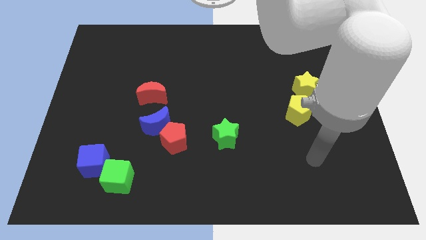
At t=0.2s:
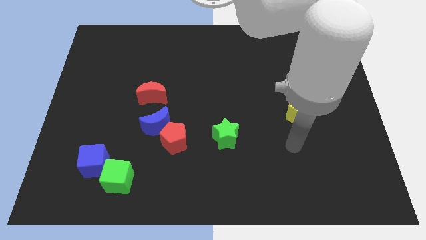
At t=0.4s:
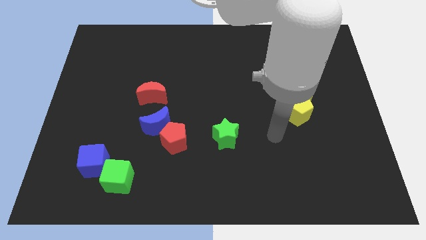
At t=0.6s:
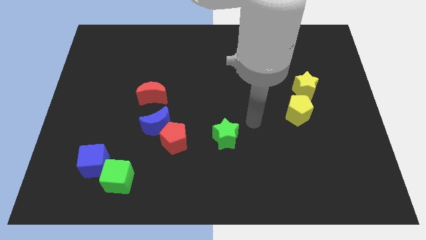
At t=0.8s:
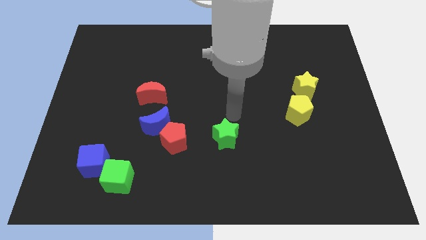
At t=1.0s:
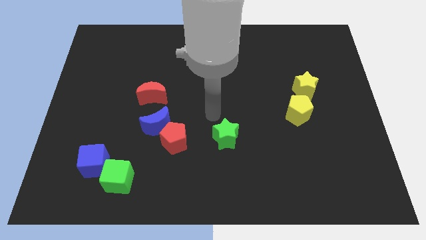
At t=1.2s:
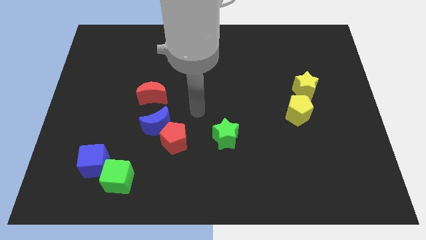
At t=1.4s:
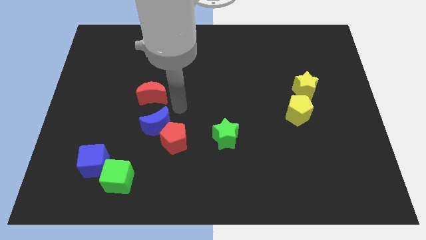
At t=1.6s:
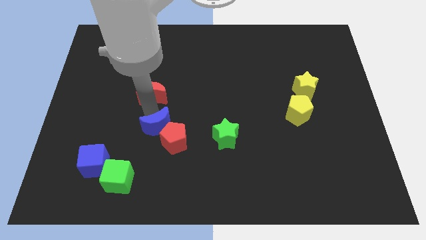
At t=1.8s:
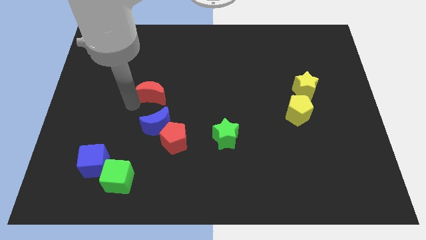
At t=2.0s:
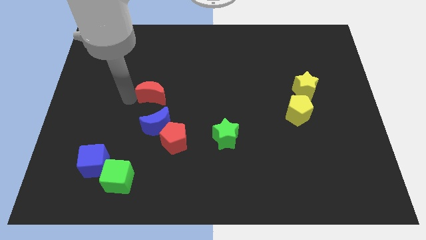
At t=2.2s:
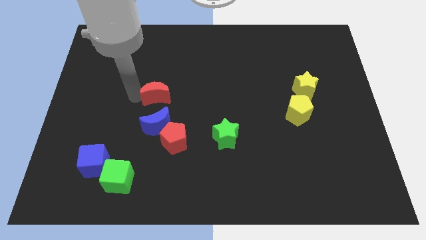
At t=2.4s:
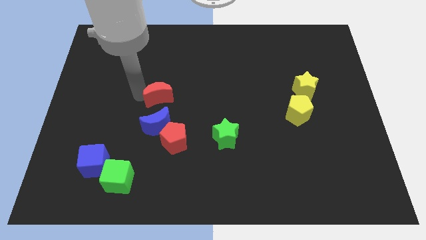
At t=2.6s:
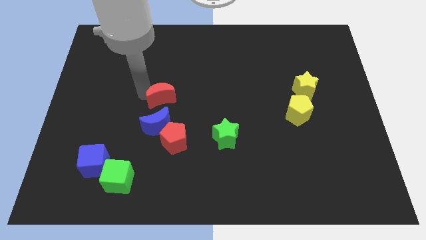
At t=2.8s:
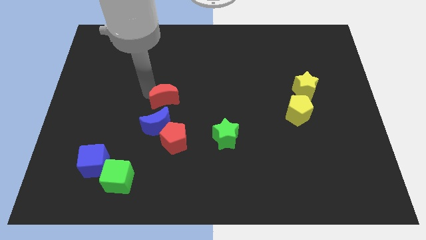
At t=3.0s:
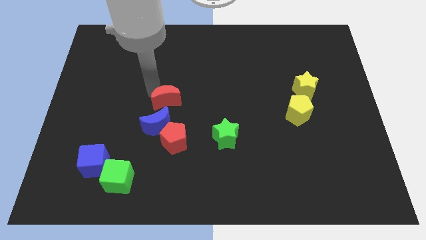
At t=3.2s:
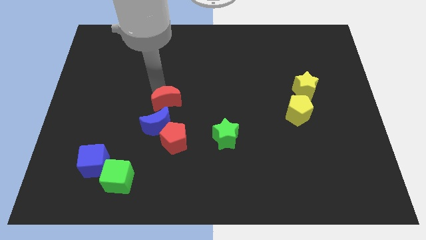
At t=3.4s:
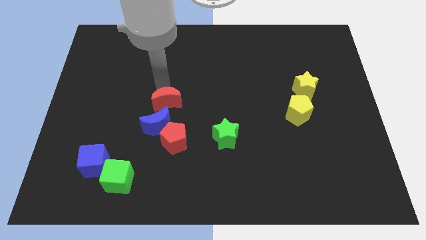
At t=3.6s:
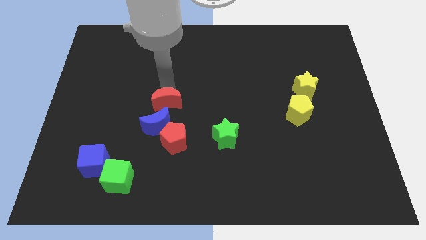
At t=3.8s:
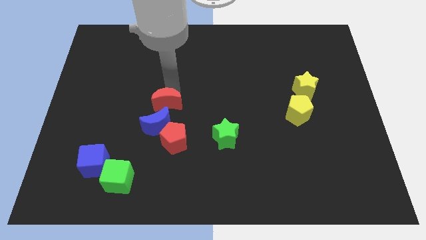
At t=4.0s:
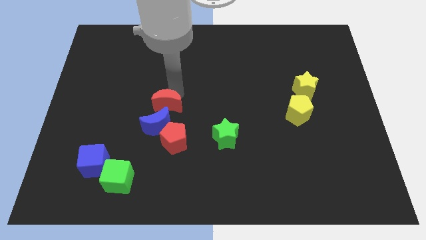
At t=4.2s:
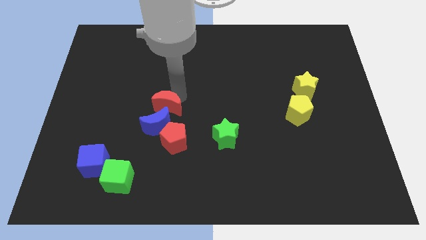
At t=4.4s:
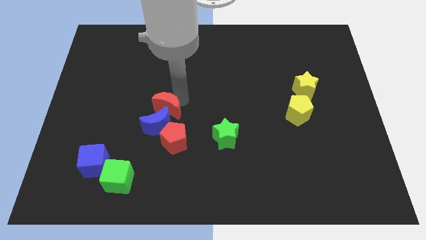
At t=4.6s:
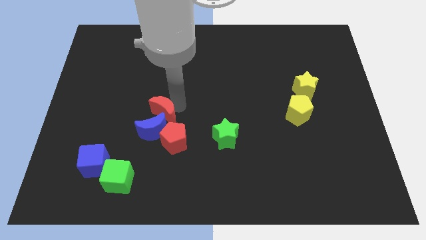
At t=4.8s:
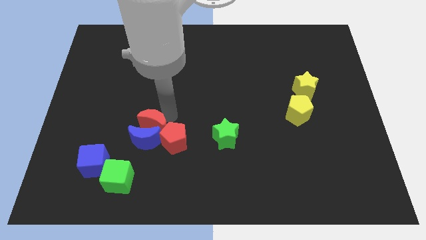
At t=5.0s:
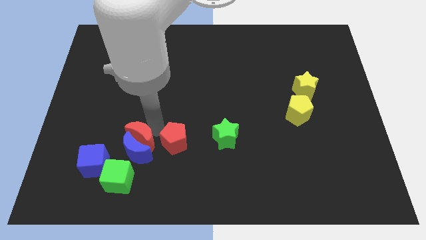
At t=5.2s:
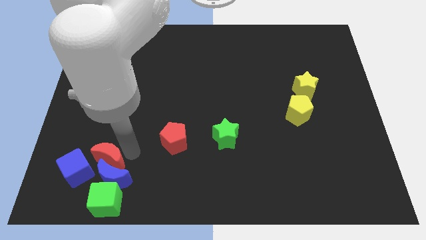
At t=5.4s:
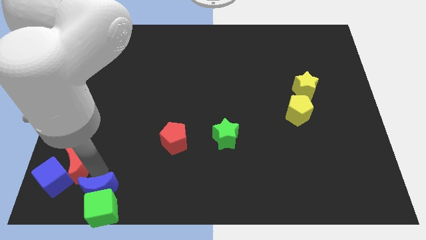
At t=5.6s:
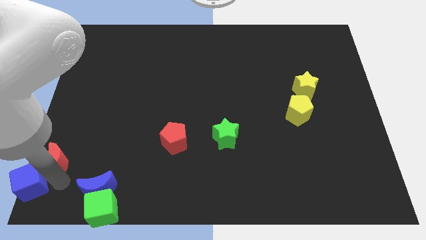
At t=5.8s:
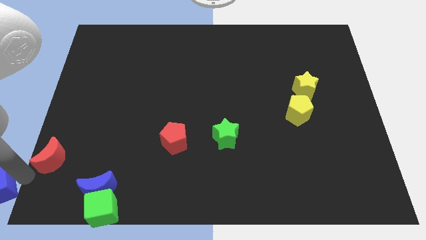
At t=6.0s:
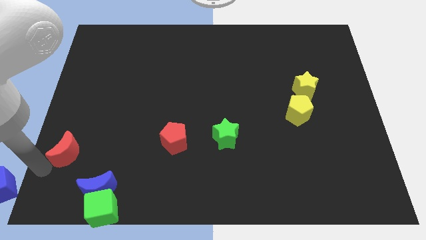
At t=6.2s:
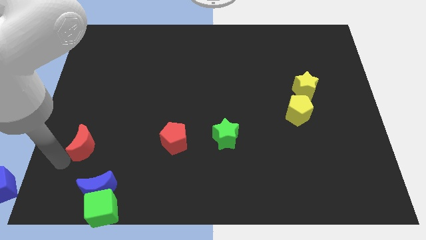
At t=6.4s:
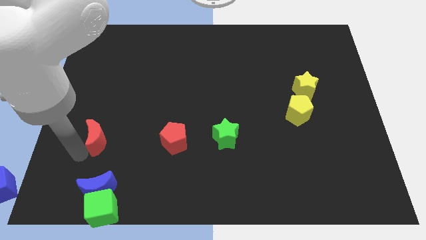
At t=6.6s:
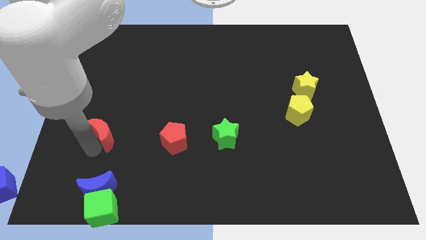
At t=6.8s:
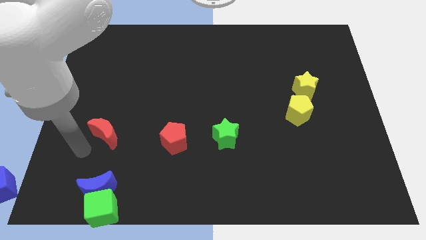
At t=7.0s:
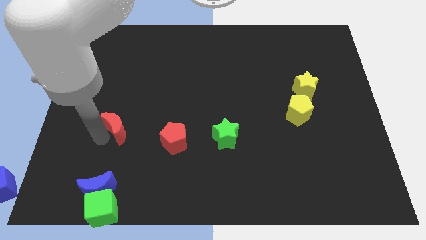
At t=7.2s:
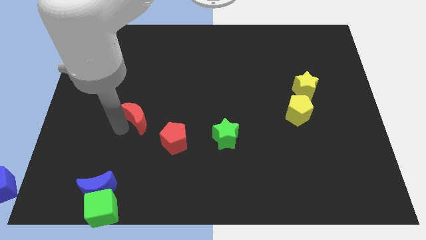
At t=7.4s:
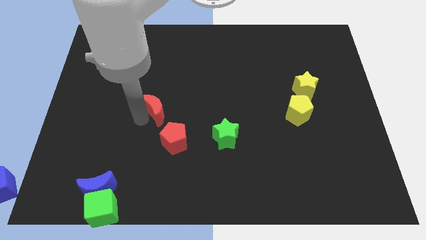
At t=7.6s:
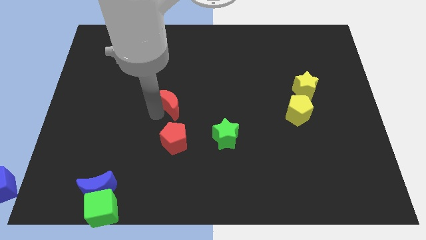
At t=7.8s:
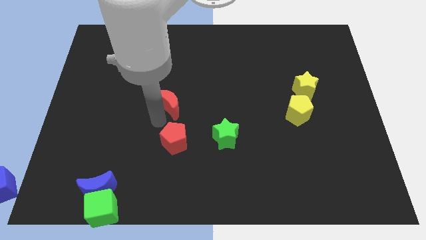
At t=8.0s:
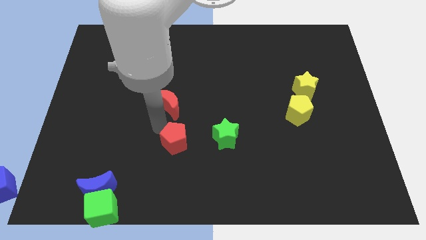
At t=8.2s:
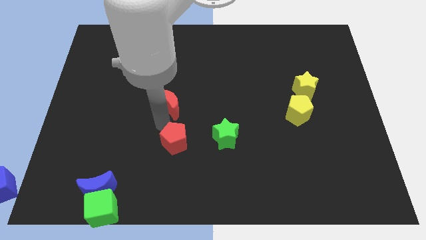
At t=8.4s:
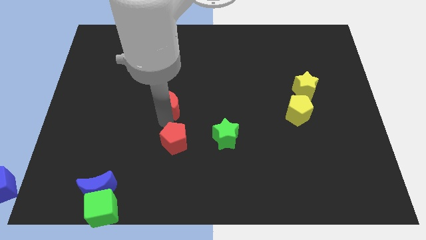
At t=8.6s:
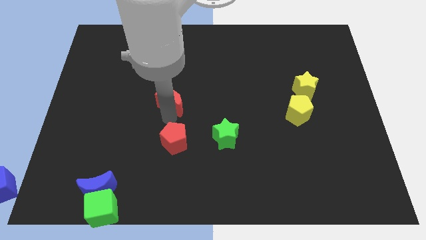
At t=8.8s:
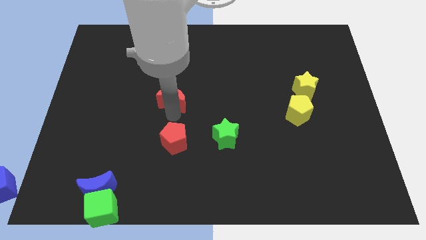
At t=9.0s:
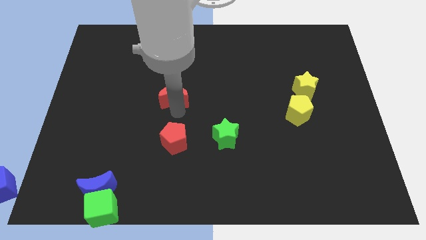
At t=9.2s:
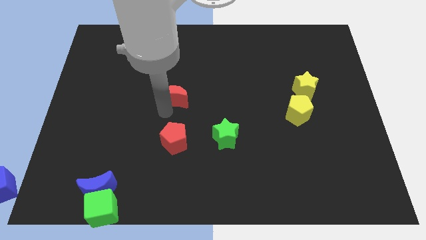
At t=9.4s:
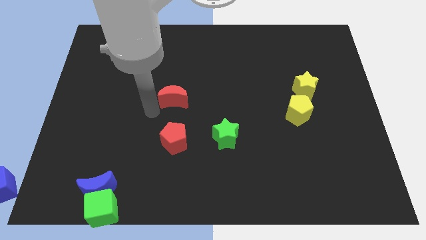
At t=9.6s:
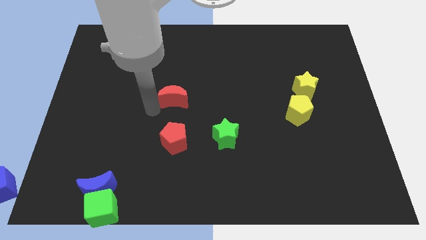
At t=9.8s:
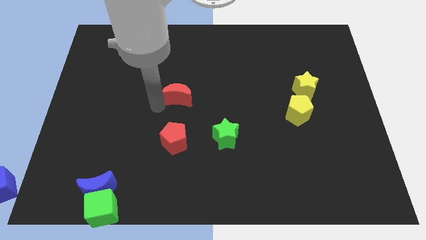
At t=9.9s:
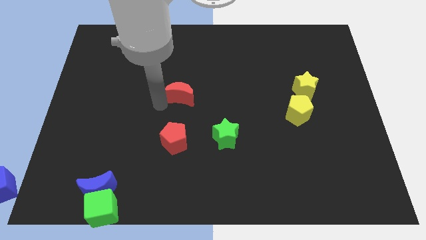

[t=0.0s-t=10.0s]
slightly push the red moon to the right

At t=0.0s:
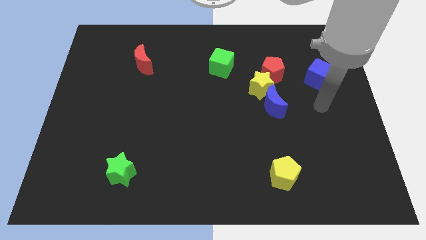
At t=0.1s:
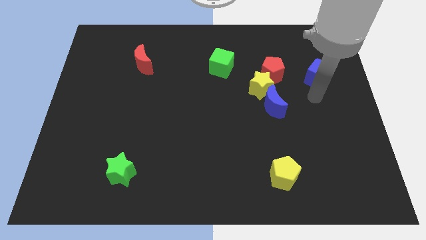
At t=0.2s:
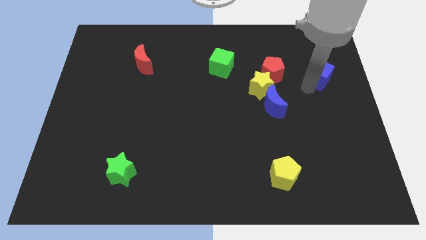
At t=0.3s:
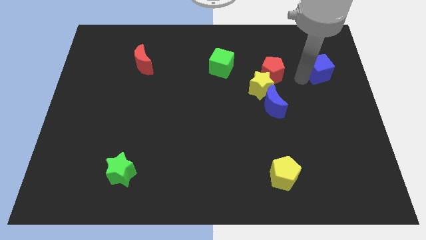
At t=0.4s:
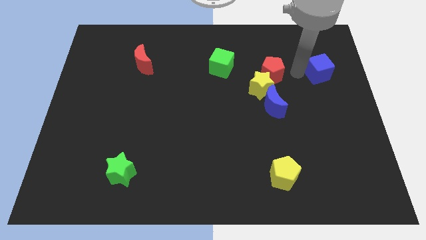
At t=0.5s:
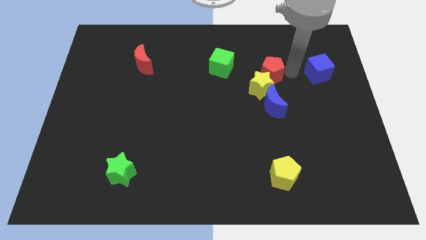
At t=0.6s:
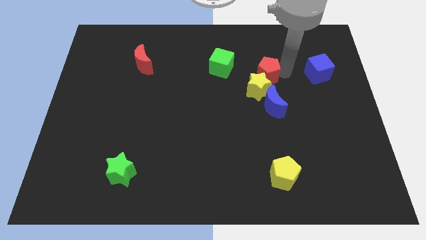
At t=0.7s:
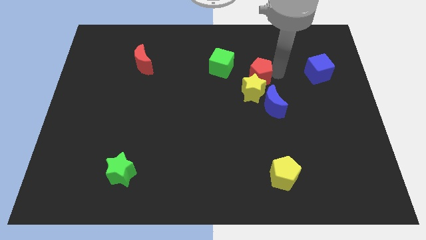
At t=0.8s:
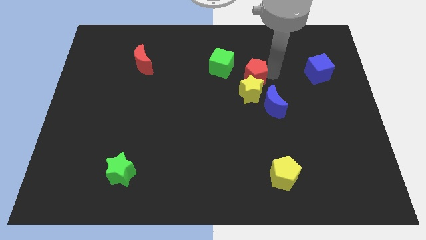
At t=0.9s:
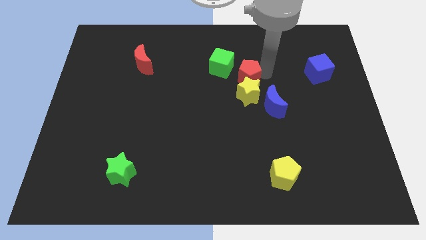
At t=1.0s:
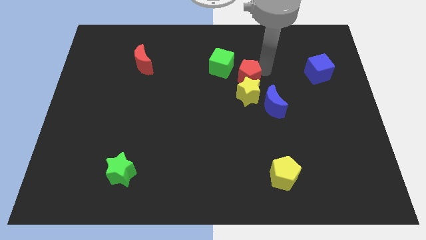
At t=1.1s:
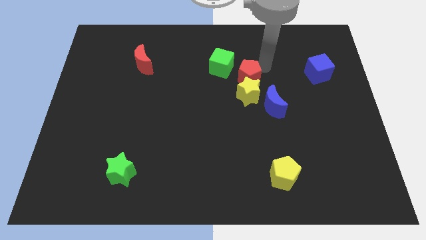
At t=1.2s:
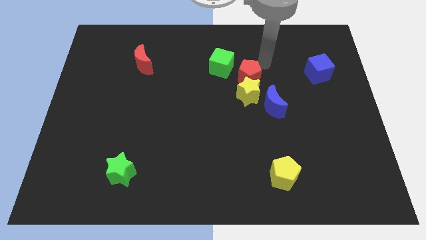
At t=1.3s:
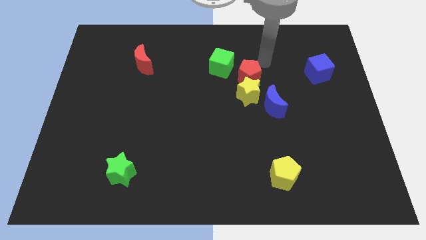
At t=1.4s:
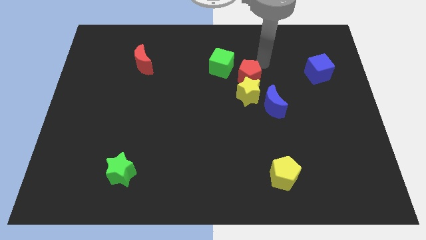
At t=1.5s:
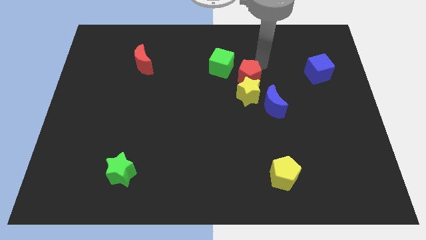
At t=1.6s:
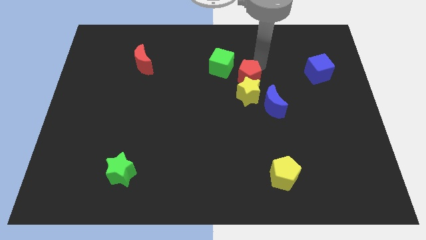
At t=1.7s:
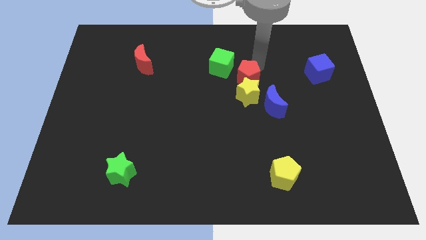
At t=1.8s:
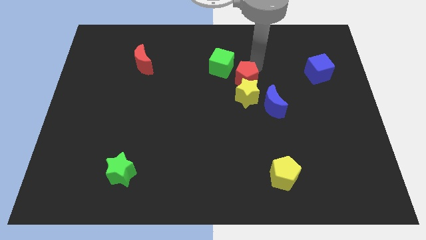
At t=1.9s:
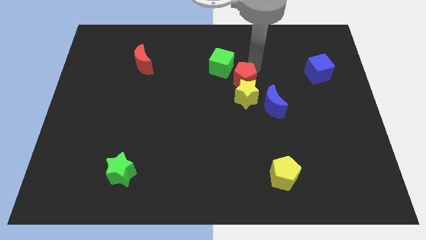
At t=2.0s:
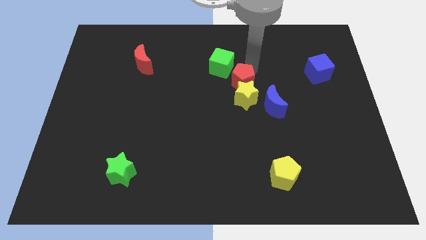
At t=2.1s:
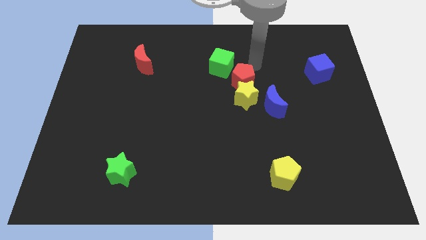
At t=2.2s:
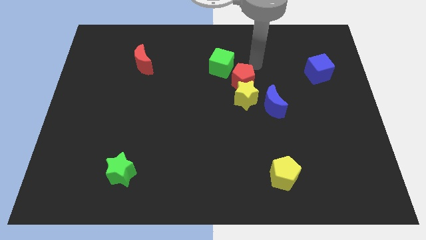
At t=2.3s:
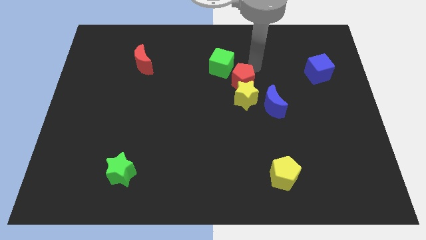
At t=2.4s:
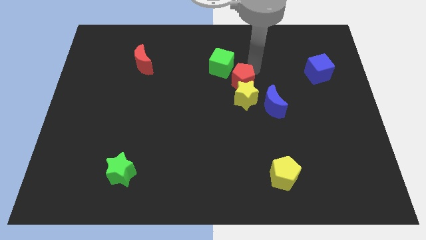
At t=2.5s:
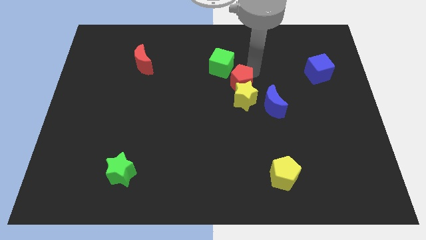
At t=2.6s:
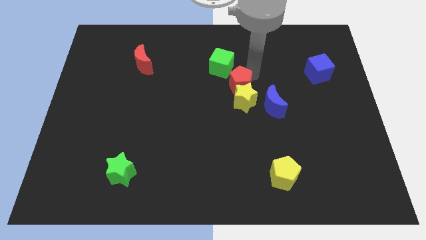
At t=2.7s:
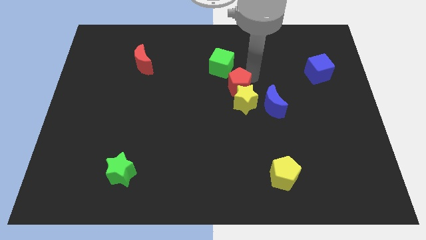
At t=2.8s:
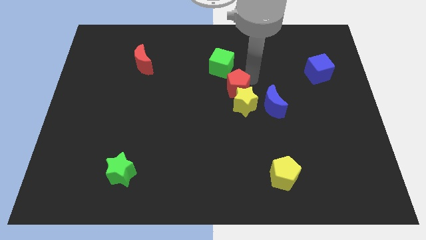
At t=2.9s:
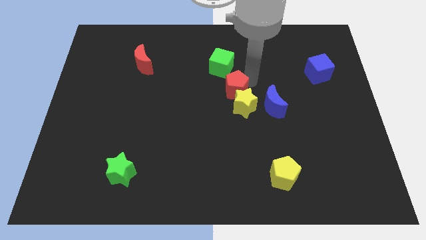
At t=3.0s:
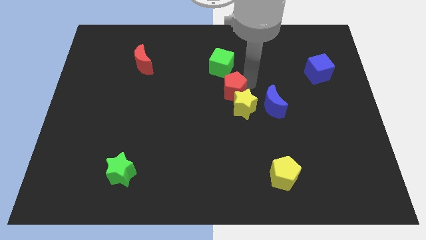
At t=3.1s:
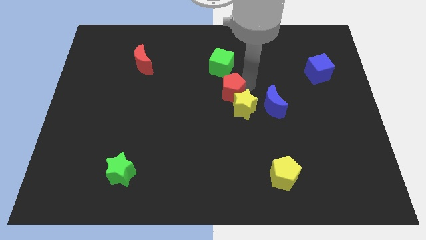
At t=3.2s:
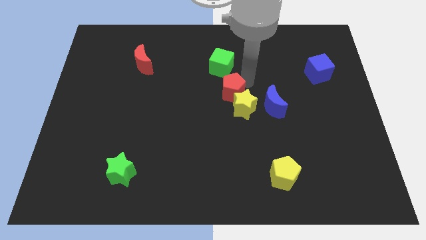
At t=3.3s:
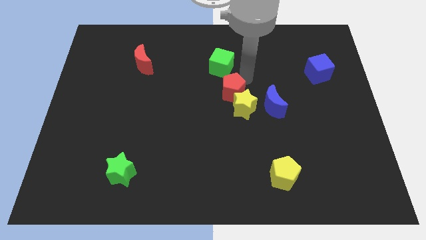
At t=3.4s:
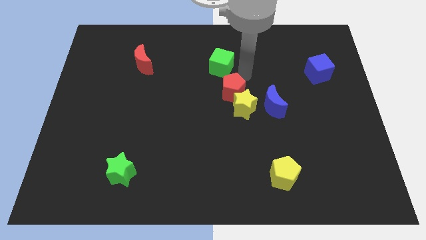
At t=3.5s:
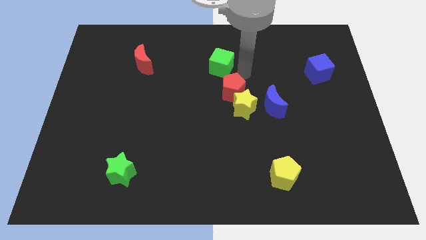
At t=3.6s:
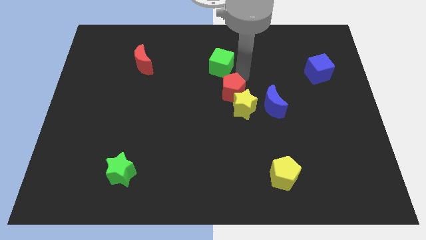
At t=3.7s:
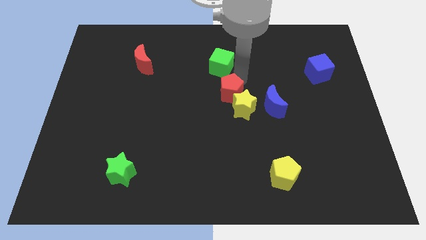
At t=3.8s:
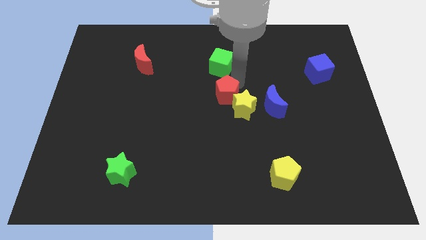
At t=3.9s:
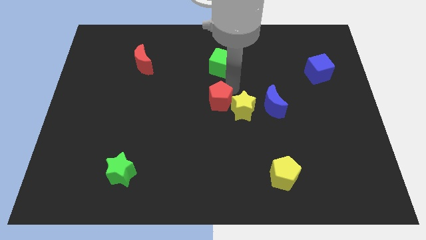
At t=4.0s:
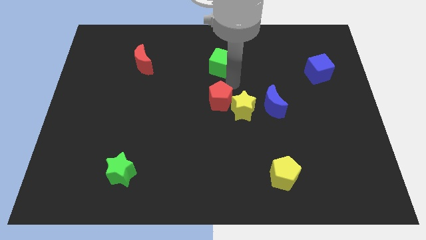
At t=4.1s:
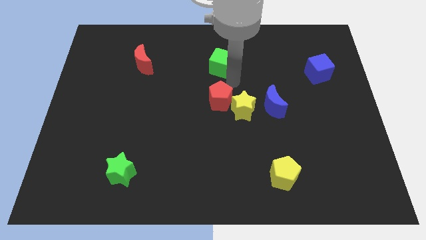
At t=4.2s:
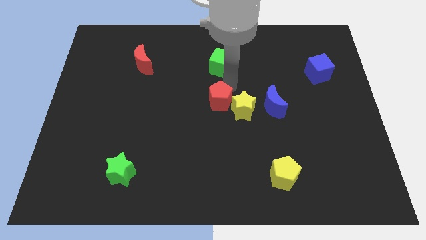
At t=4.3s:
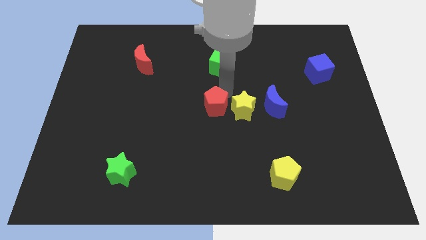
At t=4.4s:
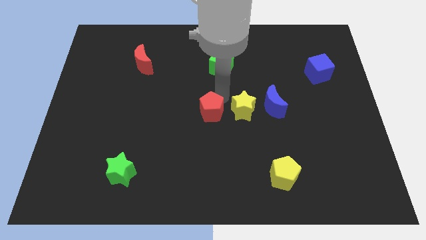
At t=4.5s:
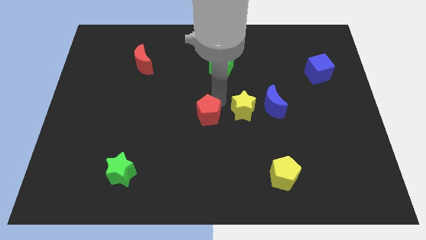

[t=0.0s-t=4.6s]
slide the red pentagon down and left
